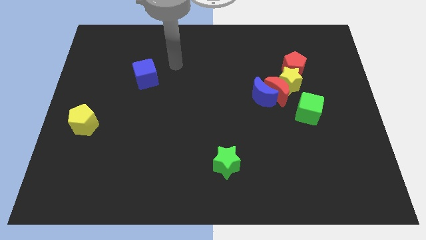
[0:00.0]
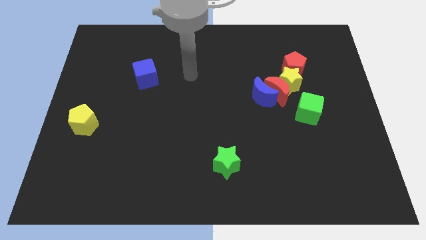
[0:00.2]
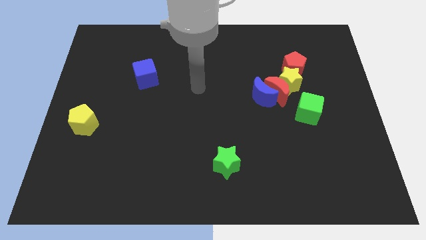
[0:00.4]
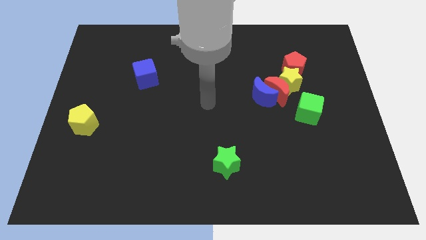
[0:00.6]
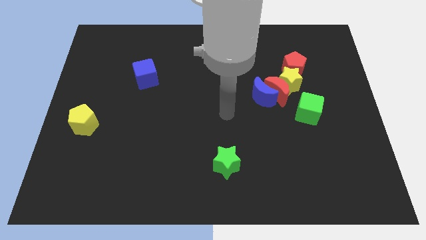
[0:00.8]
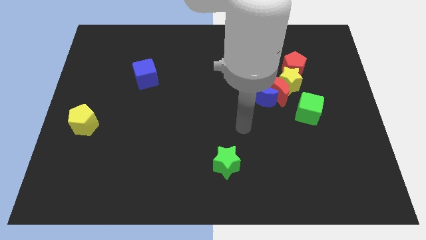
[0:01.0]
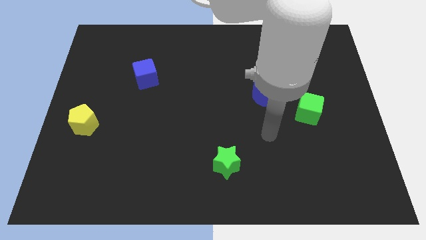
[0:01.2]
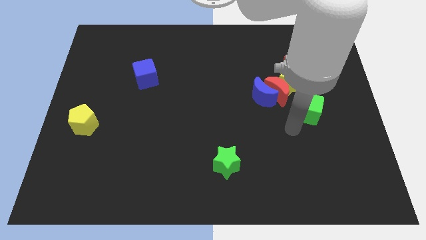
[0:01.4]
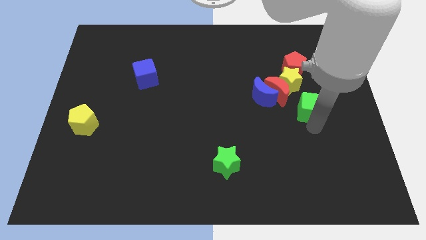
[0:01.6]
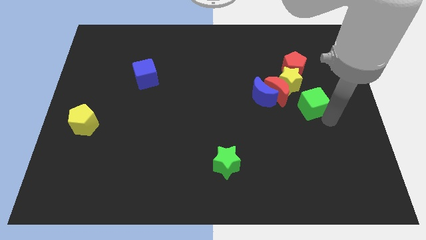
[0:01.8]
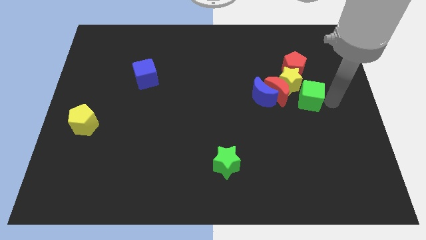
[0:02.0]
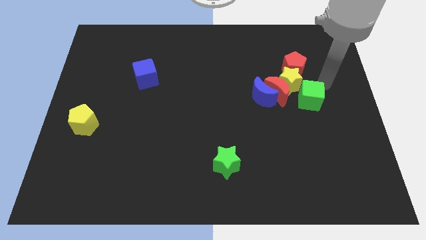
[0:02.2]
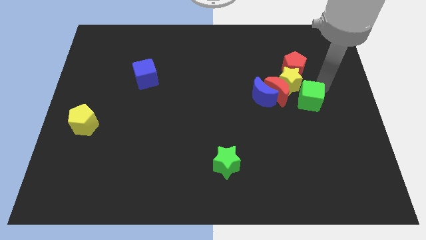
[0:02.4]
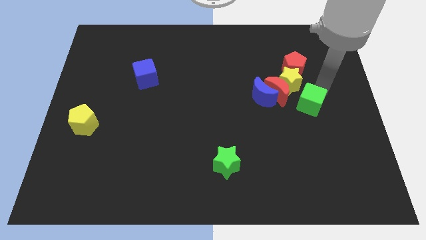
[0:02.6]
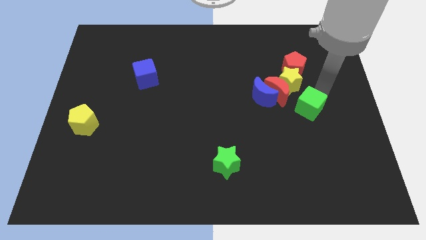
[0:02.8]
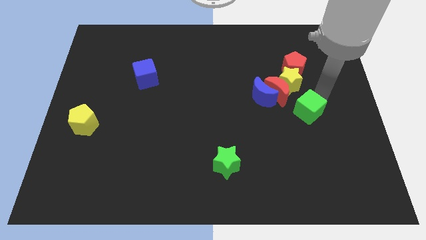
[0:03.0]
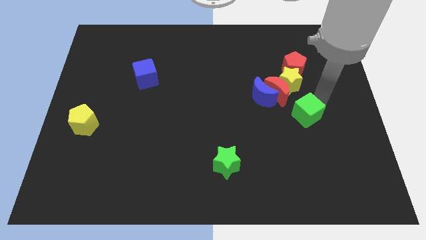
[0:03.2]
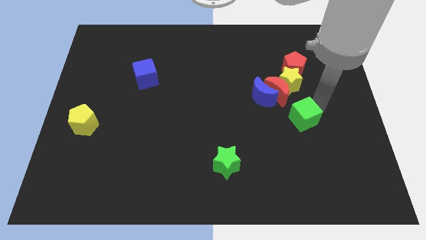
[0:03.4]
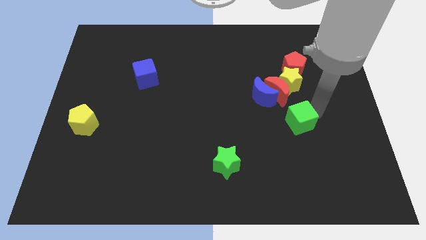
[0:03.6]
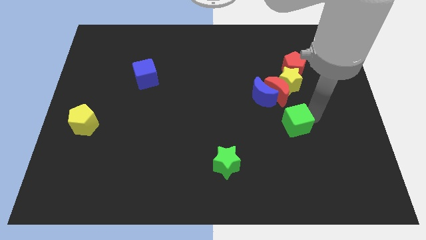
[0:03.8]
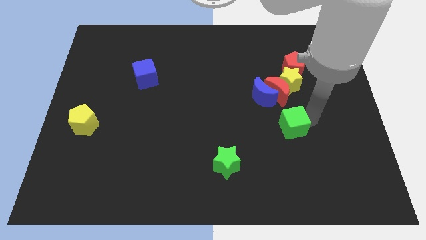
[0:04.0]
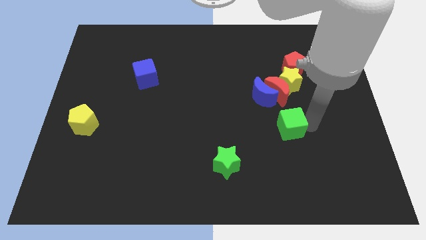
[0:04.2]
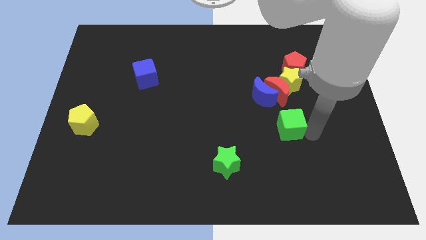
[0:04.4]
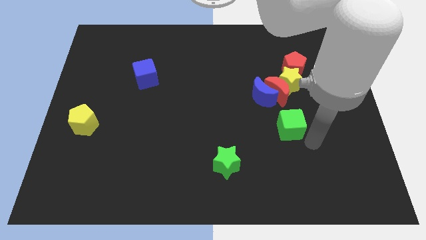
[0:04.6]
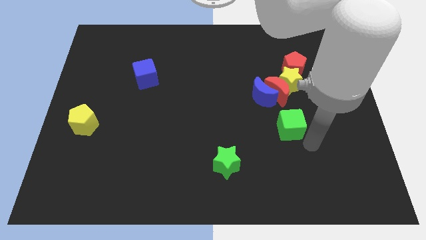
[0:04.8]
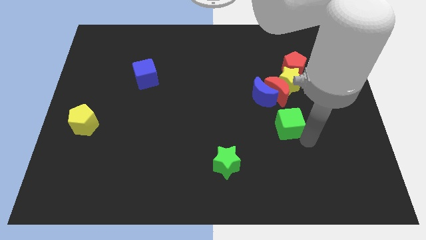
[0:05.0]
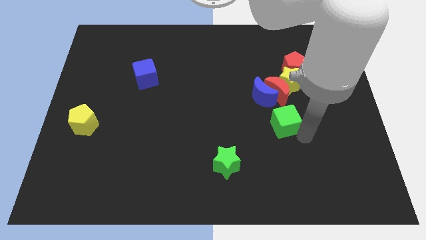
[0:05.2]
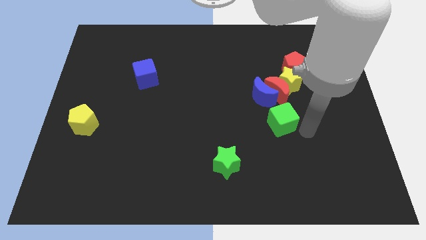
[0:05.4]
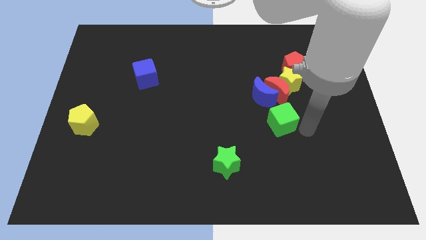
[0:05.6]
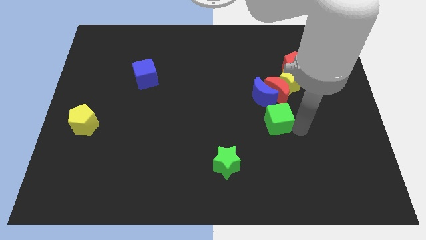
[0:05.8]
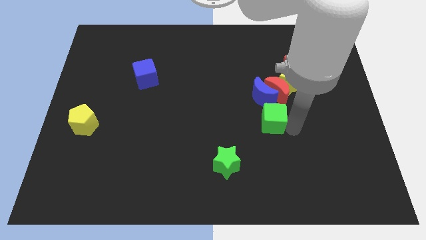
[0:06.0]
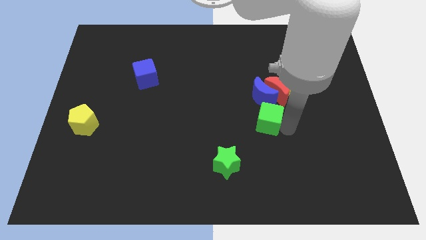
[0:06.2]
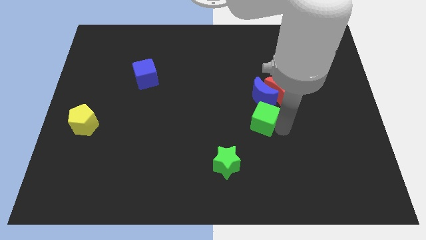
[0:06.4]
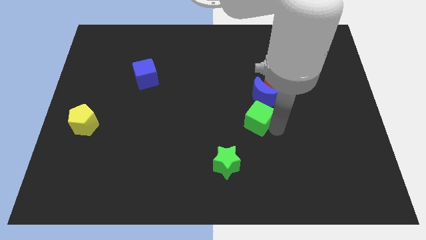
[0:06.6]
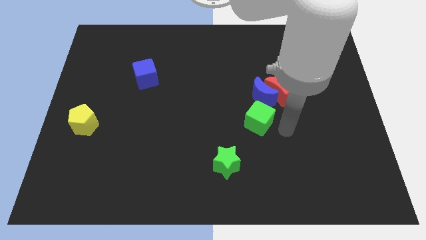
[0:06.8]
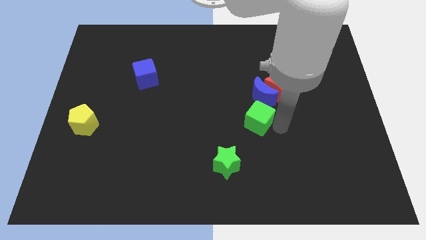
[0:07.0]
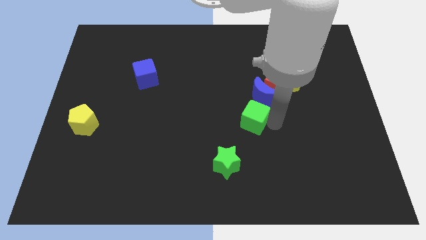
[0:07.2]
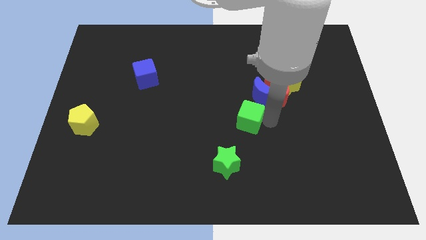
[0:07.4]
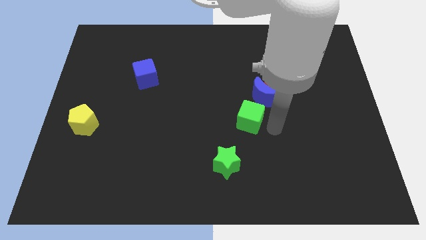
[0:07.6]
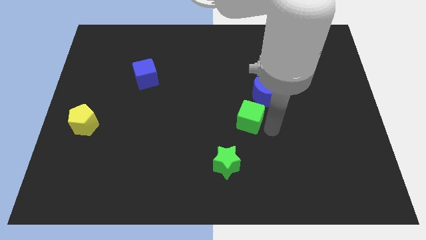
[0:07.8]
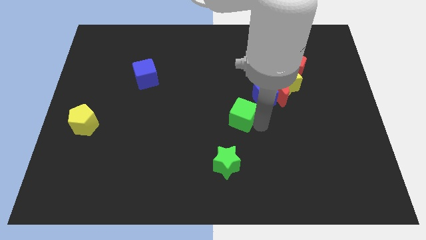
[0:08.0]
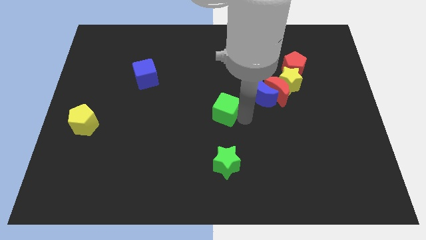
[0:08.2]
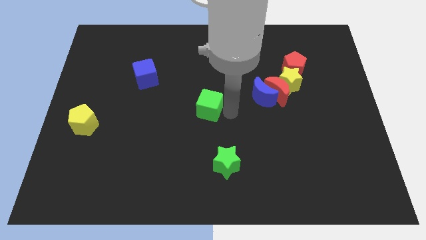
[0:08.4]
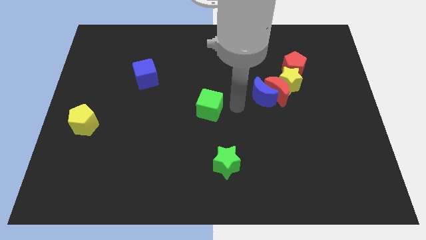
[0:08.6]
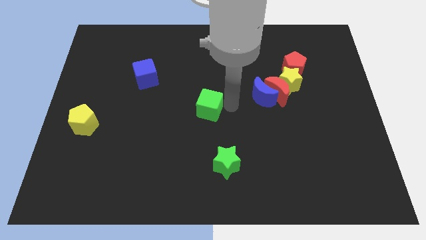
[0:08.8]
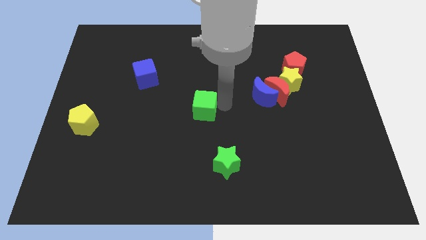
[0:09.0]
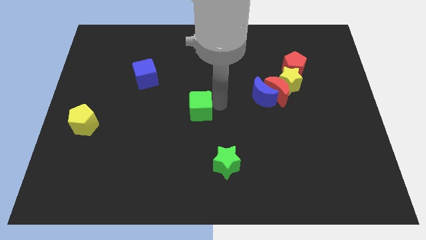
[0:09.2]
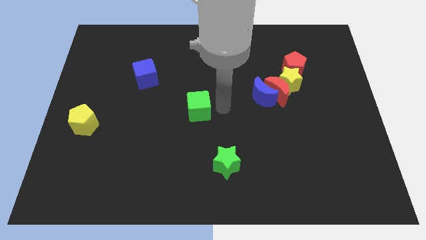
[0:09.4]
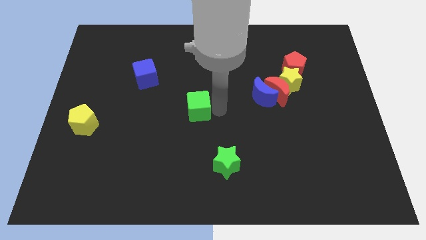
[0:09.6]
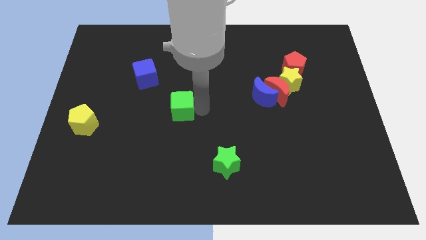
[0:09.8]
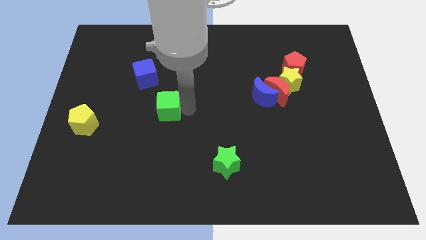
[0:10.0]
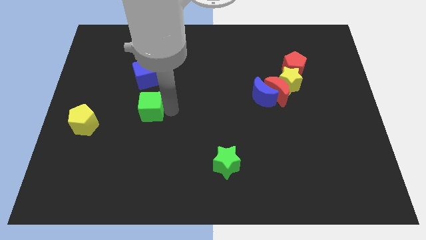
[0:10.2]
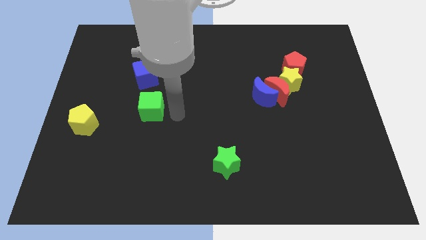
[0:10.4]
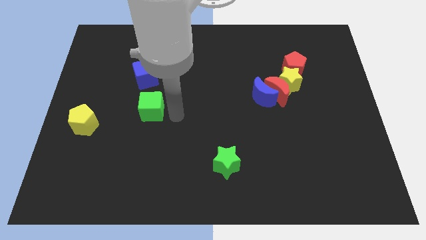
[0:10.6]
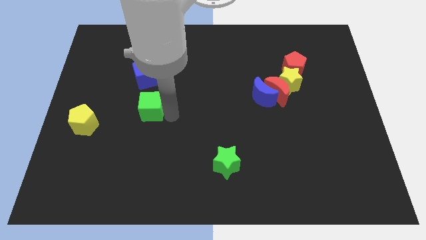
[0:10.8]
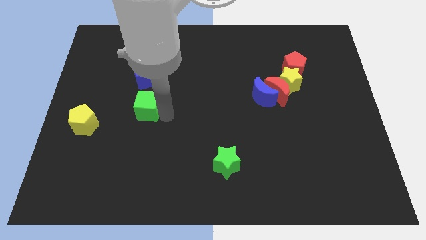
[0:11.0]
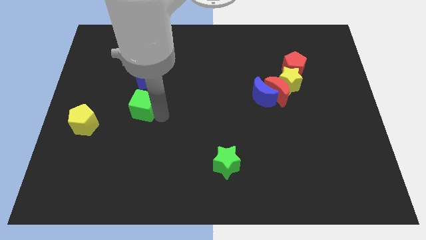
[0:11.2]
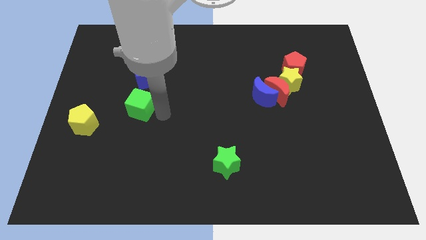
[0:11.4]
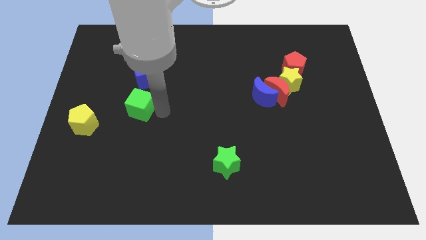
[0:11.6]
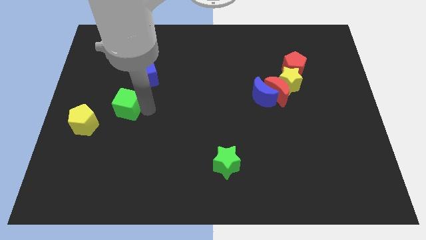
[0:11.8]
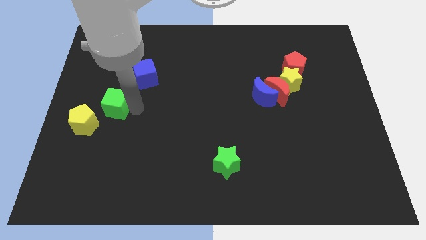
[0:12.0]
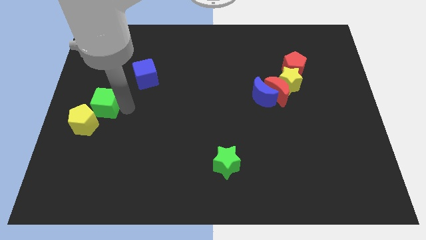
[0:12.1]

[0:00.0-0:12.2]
move the green cube to the left side
